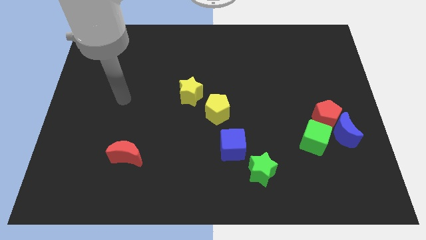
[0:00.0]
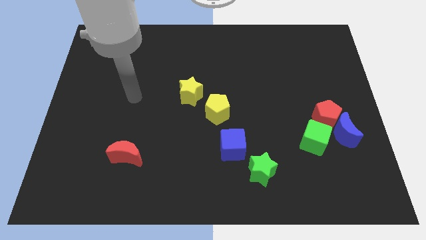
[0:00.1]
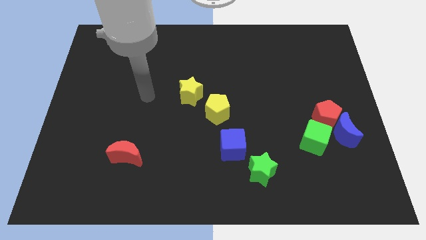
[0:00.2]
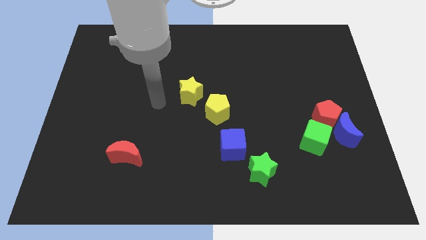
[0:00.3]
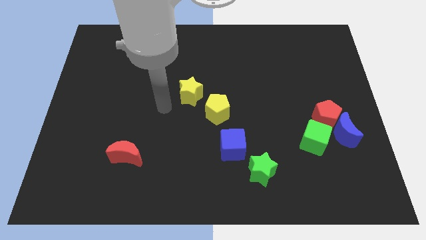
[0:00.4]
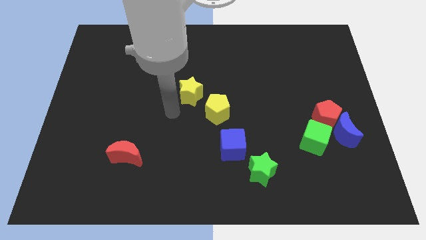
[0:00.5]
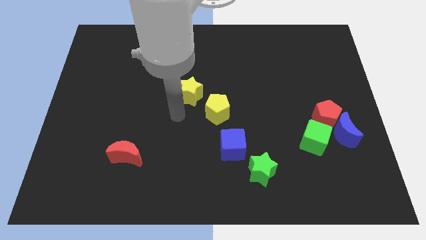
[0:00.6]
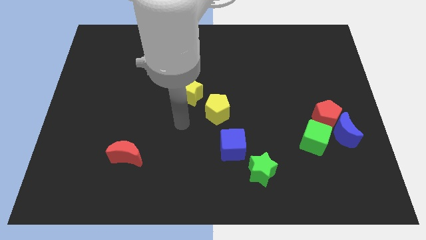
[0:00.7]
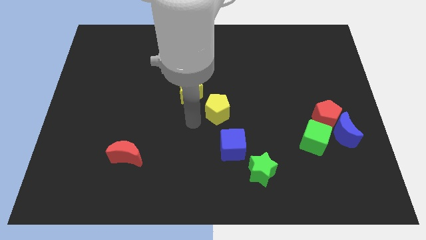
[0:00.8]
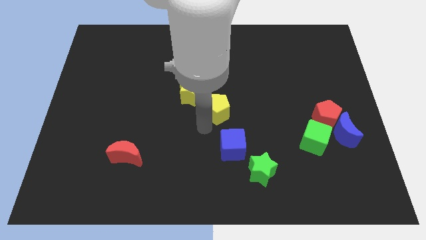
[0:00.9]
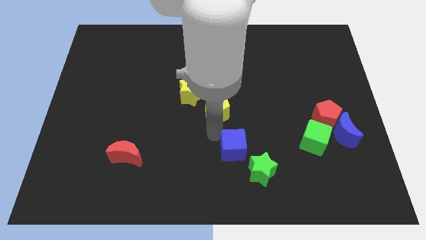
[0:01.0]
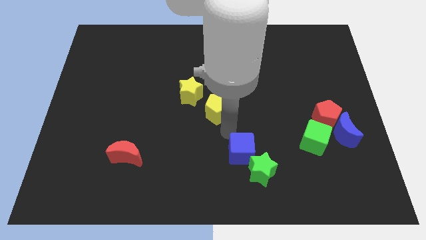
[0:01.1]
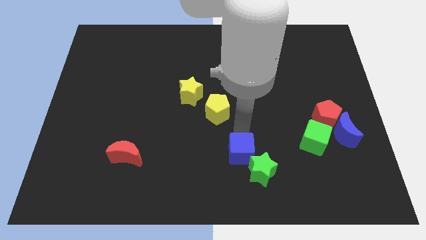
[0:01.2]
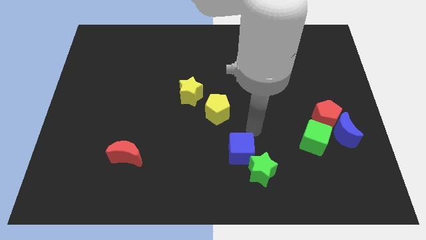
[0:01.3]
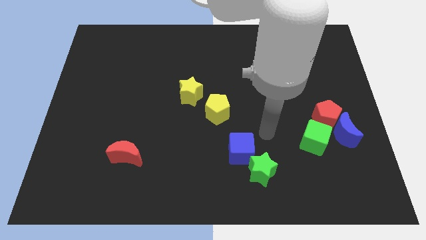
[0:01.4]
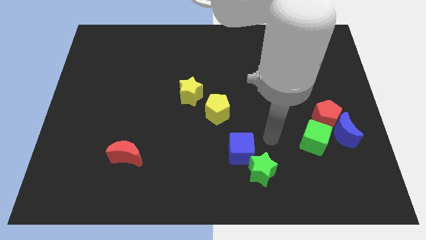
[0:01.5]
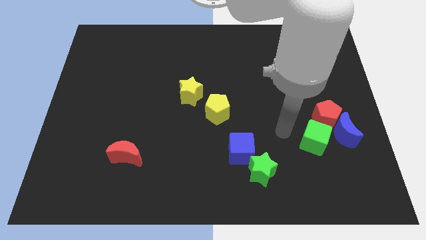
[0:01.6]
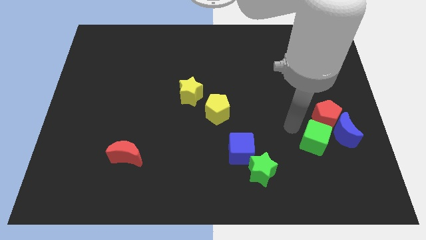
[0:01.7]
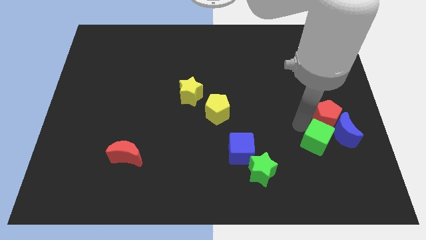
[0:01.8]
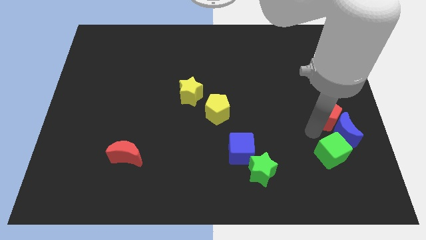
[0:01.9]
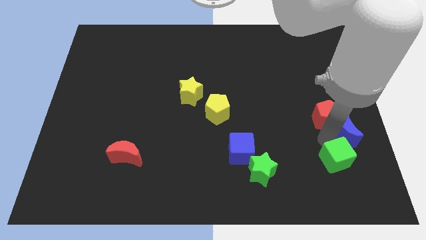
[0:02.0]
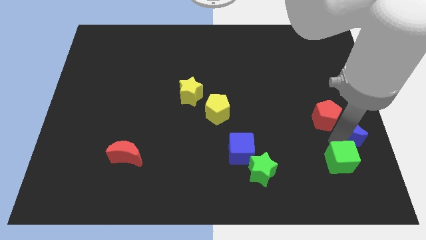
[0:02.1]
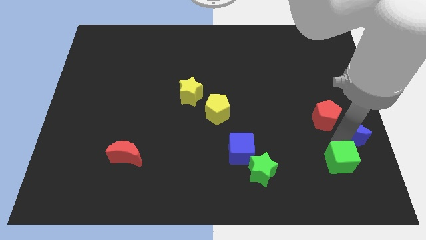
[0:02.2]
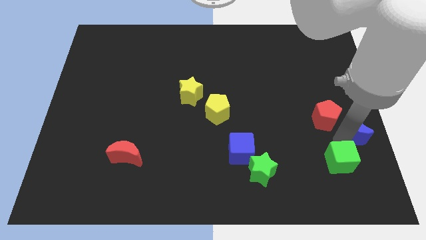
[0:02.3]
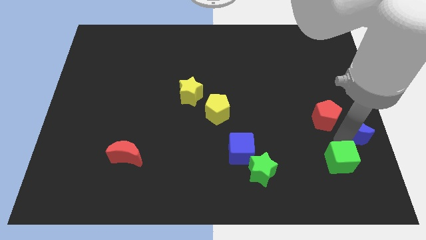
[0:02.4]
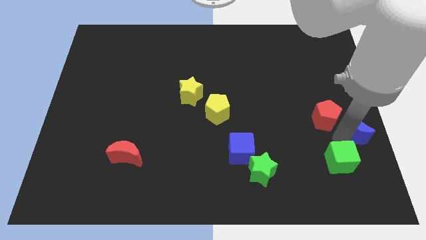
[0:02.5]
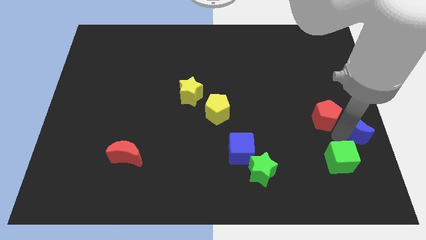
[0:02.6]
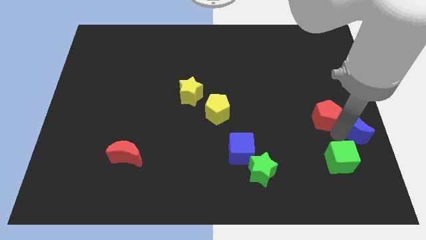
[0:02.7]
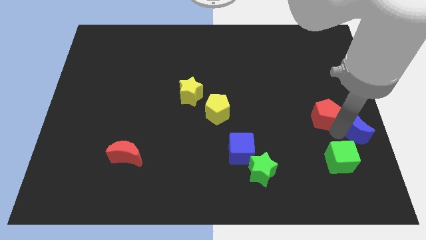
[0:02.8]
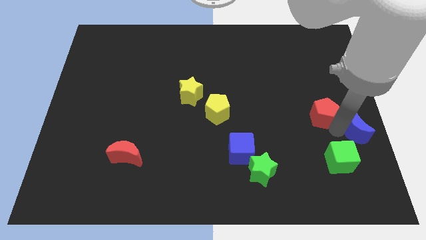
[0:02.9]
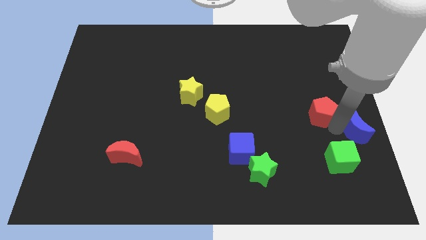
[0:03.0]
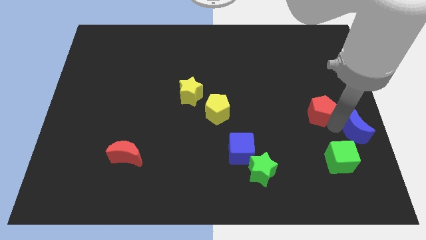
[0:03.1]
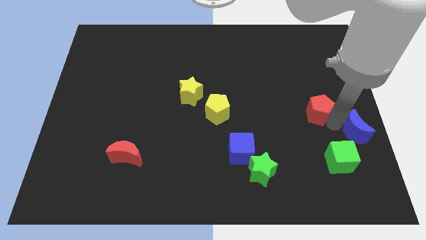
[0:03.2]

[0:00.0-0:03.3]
pull the red pentagon apart from the blue moon and green cube

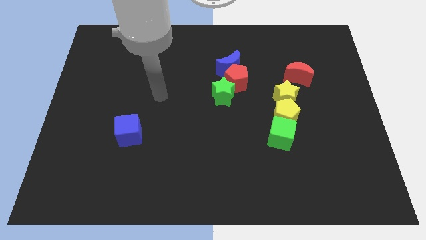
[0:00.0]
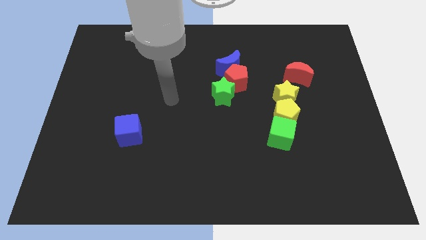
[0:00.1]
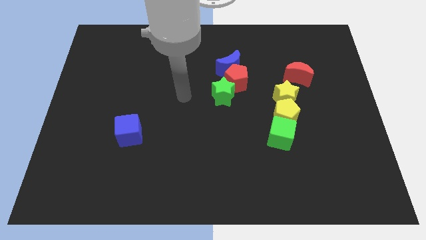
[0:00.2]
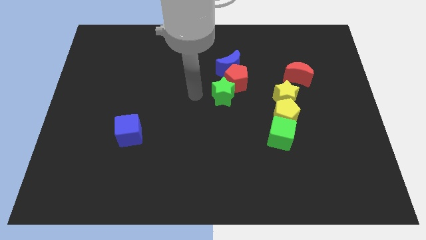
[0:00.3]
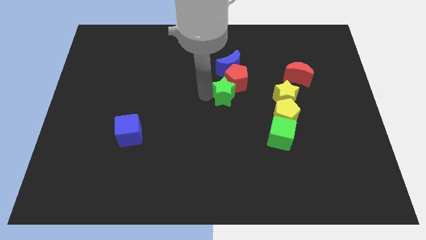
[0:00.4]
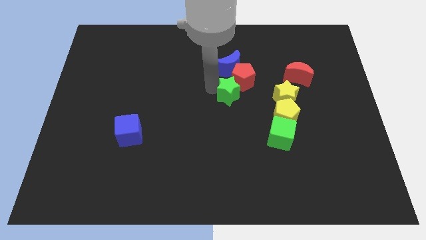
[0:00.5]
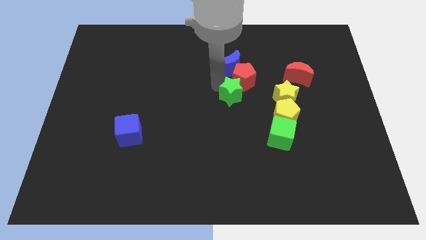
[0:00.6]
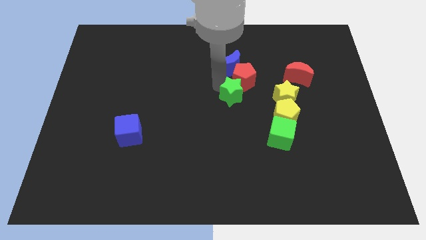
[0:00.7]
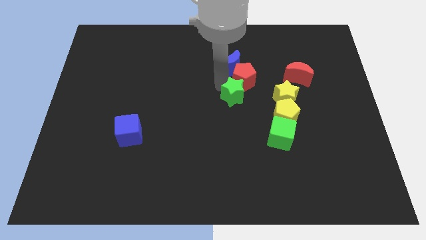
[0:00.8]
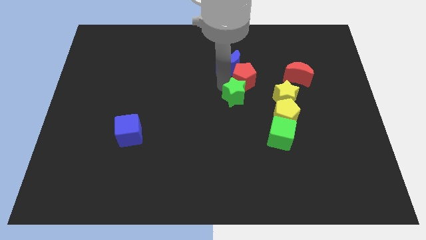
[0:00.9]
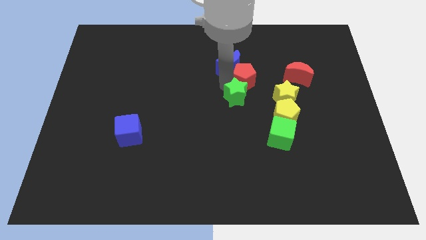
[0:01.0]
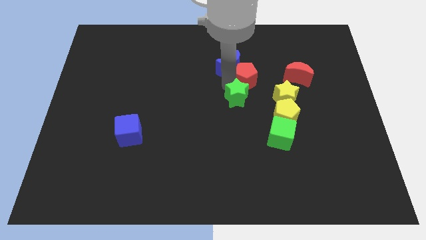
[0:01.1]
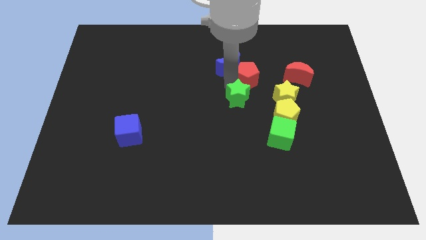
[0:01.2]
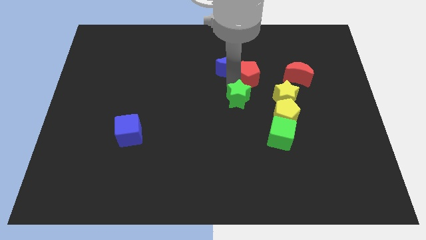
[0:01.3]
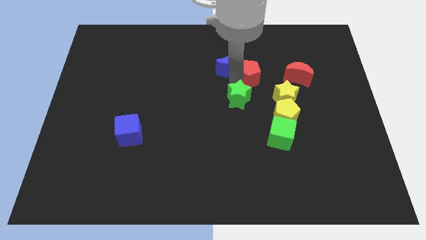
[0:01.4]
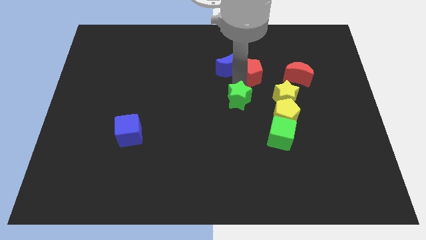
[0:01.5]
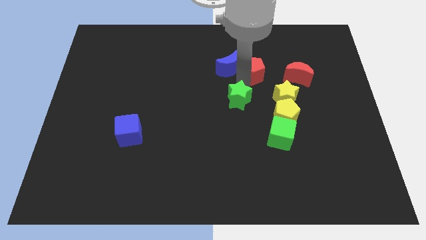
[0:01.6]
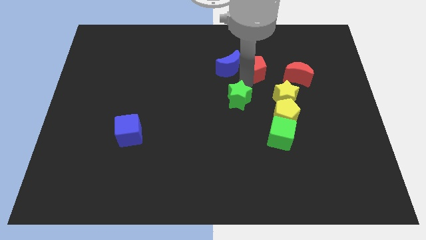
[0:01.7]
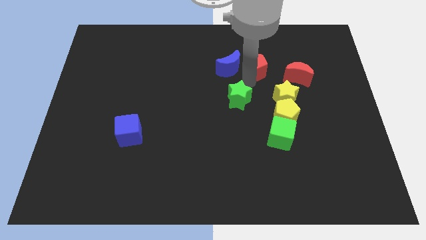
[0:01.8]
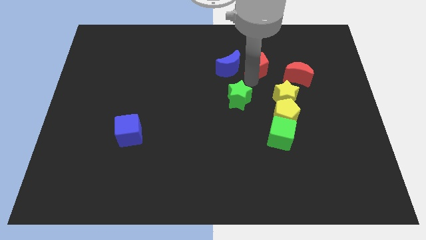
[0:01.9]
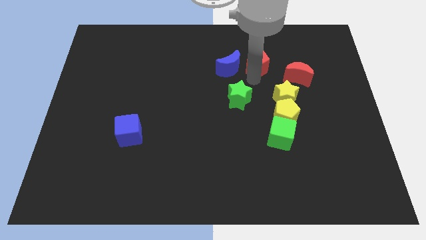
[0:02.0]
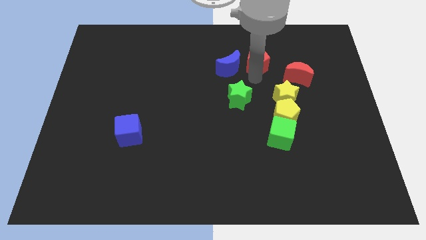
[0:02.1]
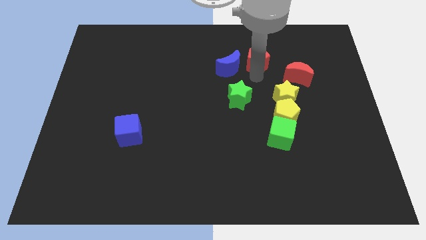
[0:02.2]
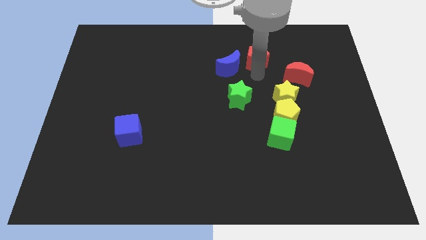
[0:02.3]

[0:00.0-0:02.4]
move the red pentagon away from the blue moon and green star

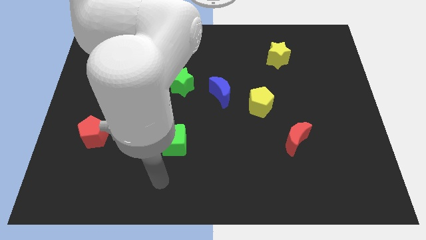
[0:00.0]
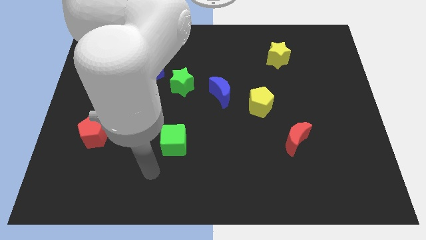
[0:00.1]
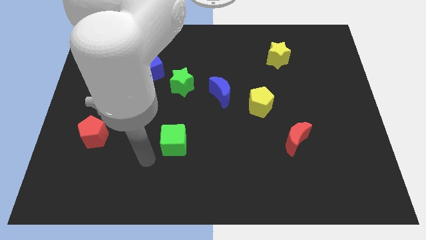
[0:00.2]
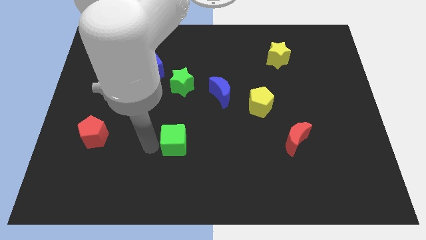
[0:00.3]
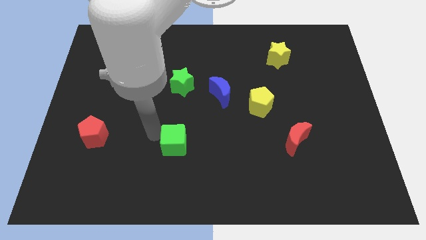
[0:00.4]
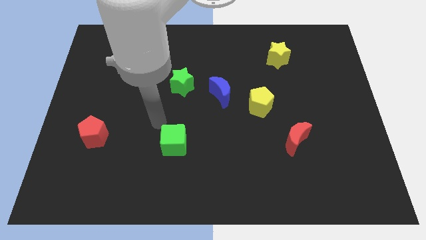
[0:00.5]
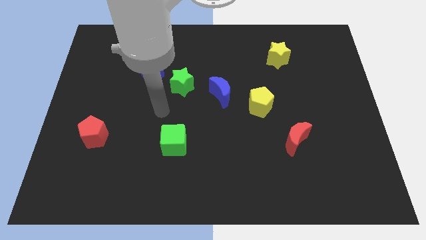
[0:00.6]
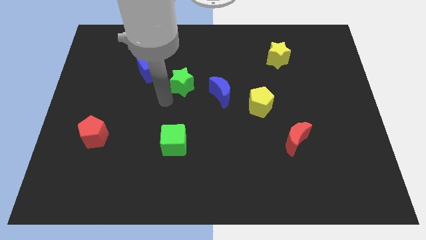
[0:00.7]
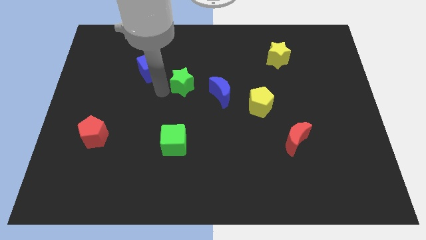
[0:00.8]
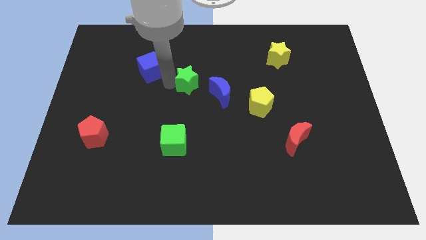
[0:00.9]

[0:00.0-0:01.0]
pull the blue cube apart from the green star

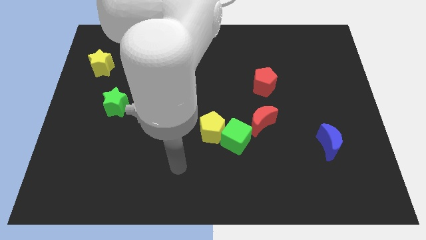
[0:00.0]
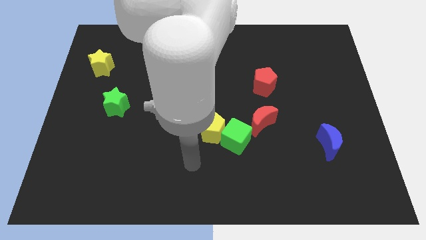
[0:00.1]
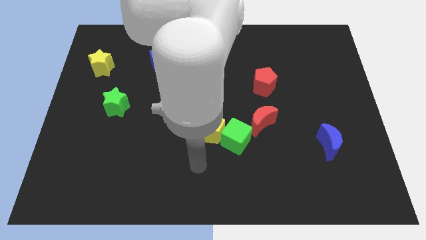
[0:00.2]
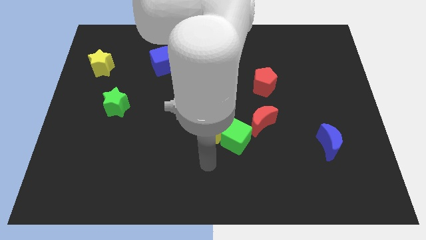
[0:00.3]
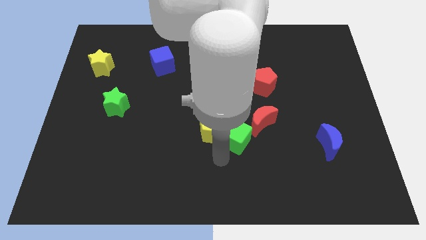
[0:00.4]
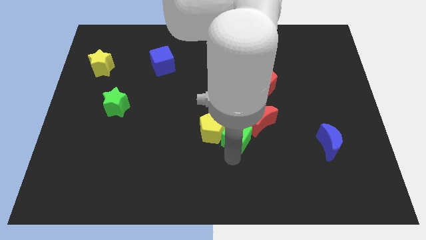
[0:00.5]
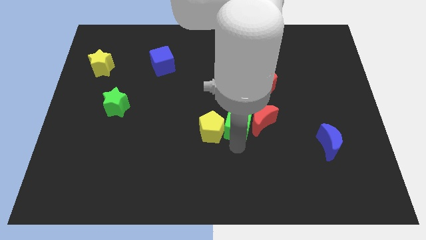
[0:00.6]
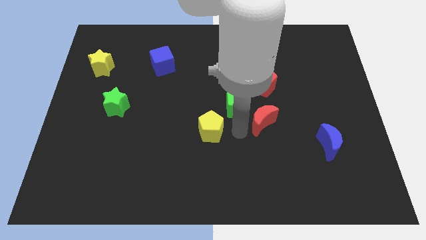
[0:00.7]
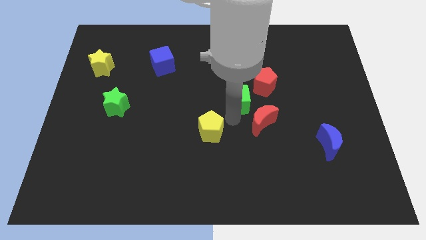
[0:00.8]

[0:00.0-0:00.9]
separate the yellow pentagon from the green cube

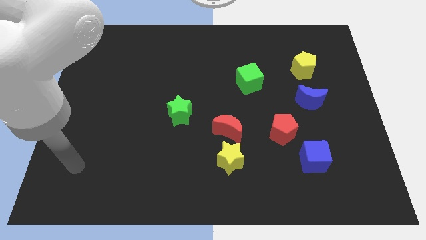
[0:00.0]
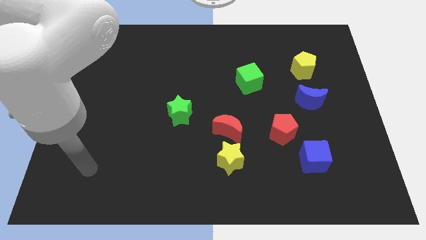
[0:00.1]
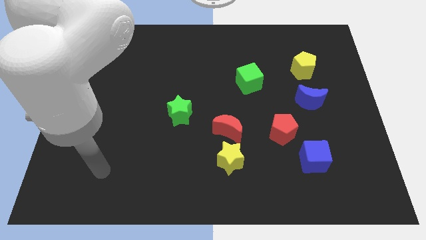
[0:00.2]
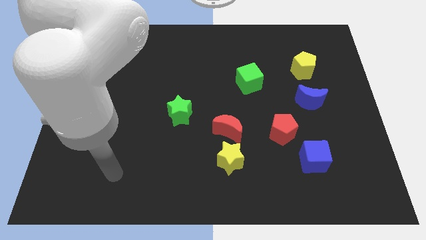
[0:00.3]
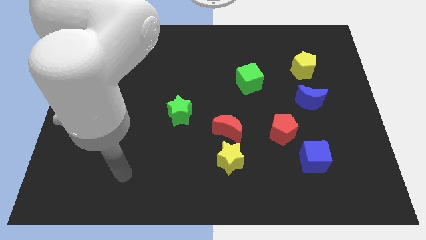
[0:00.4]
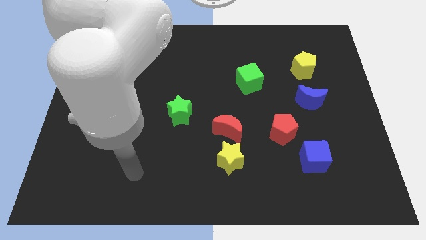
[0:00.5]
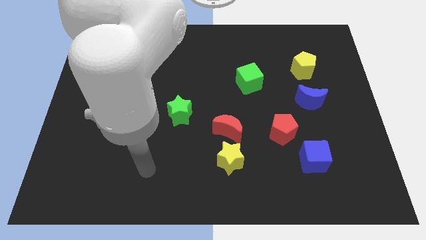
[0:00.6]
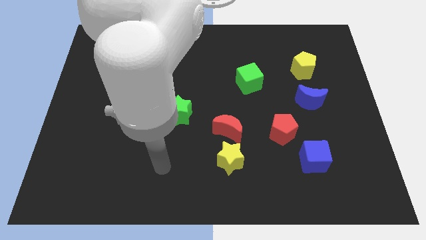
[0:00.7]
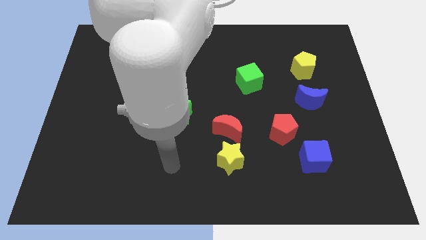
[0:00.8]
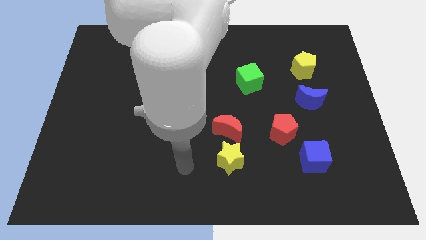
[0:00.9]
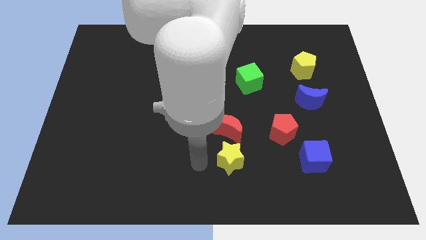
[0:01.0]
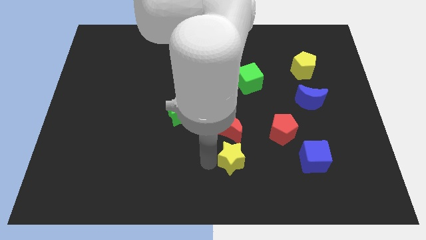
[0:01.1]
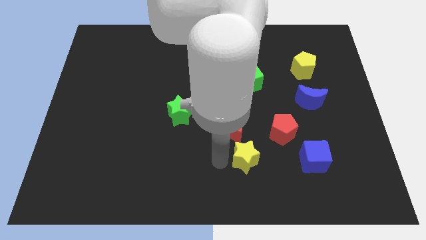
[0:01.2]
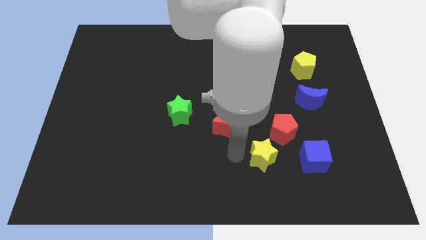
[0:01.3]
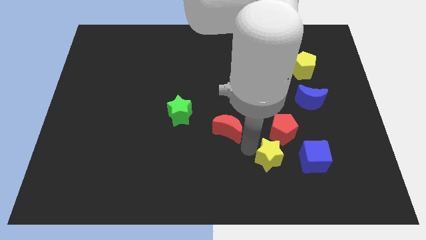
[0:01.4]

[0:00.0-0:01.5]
pull the red moon apart from the yellow star

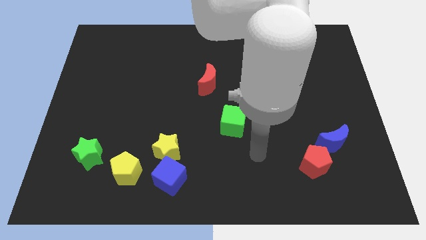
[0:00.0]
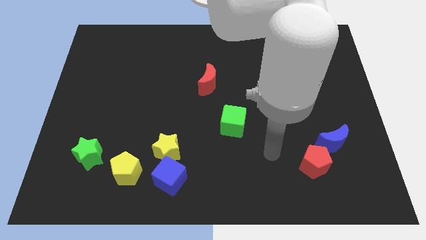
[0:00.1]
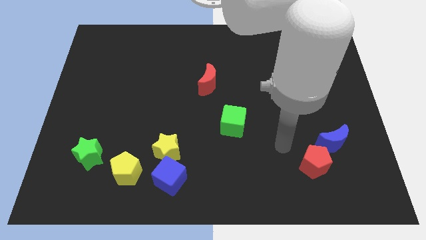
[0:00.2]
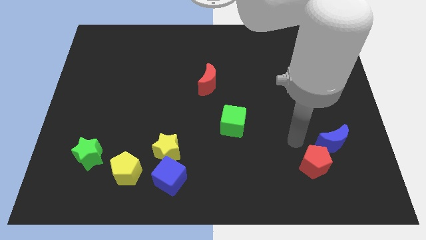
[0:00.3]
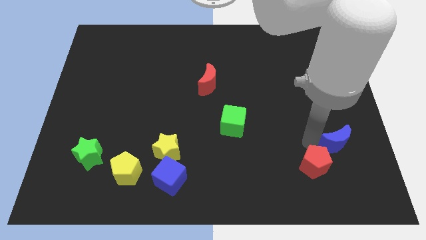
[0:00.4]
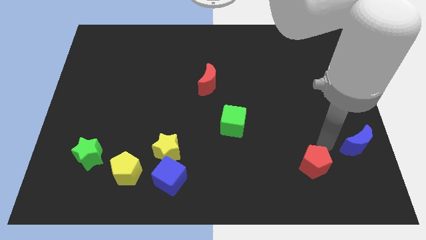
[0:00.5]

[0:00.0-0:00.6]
pull the red pentagon apart from the blue moon
